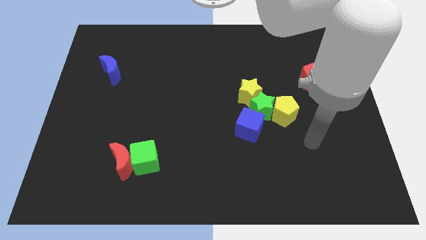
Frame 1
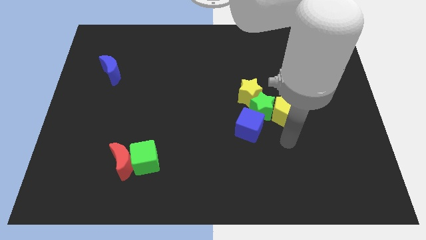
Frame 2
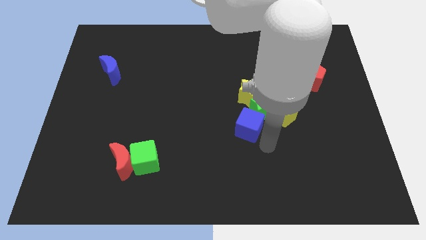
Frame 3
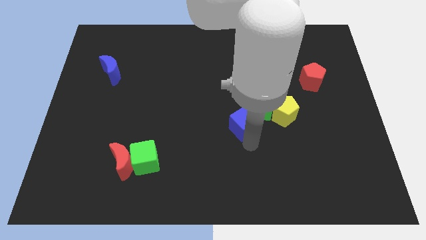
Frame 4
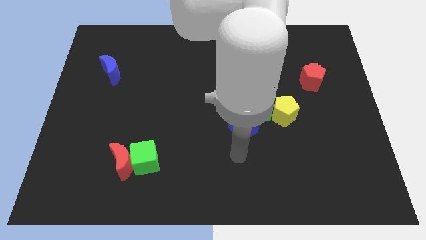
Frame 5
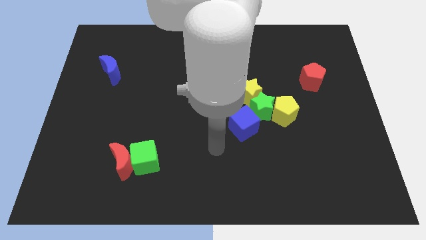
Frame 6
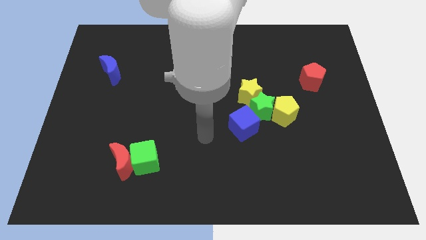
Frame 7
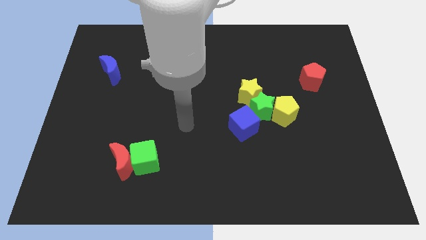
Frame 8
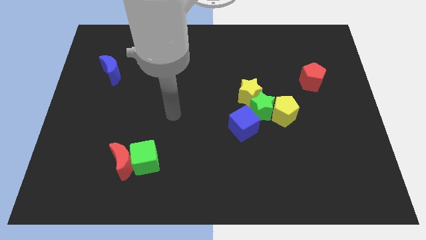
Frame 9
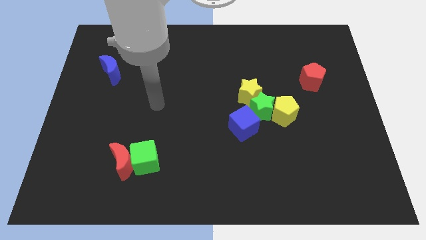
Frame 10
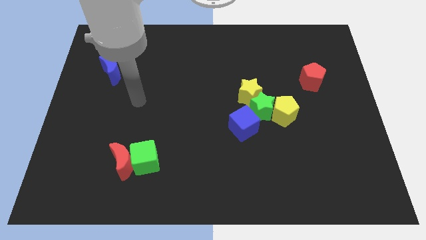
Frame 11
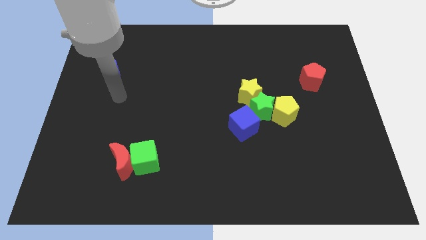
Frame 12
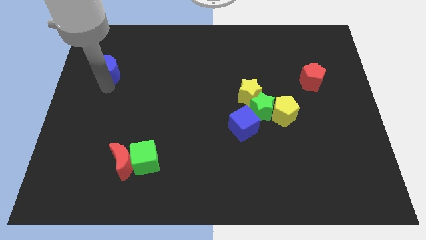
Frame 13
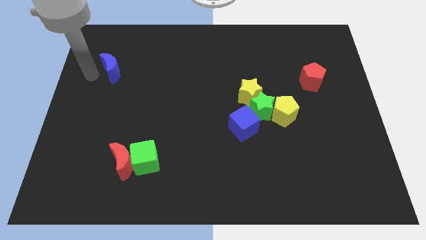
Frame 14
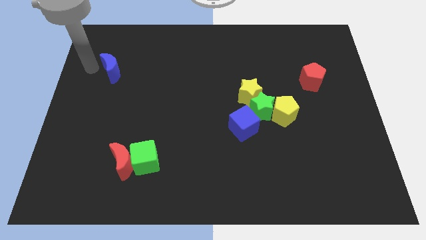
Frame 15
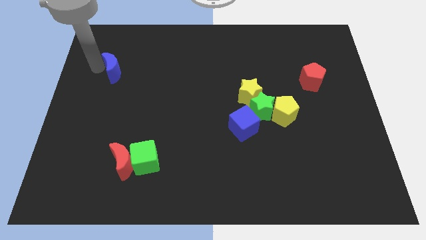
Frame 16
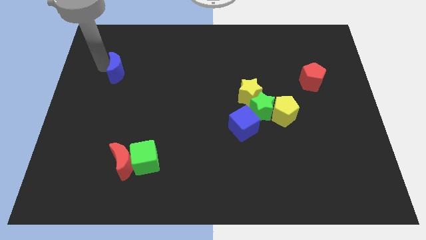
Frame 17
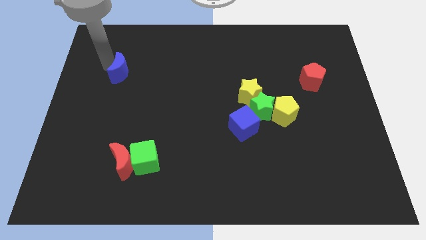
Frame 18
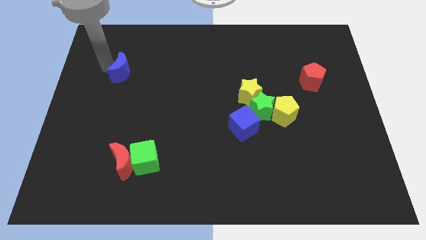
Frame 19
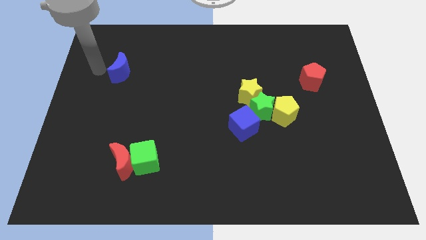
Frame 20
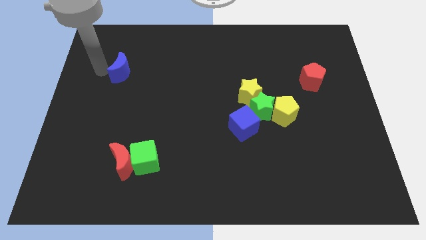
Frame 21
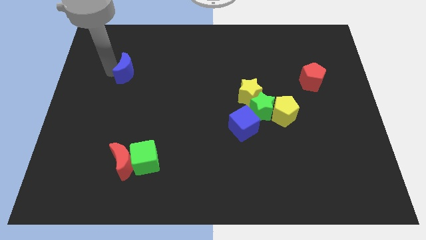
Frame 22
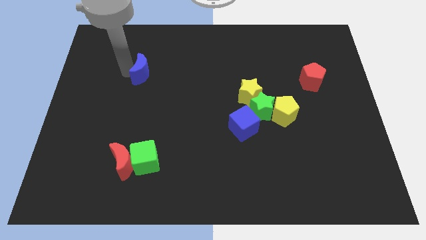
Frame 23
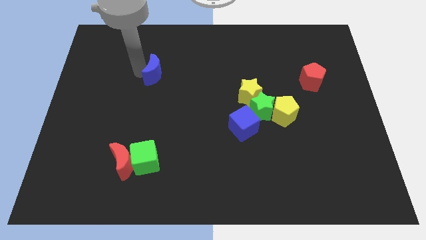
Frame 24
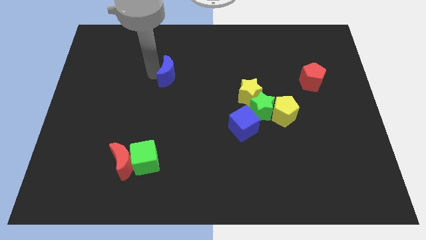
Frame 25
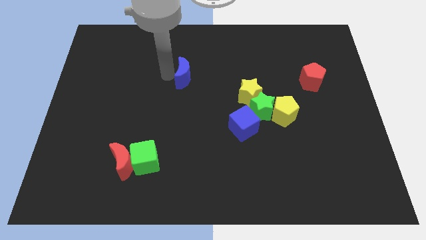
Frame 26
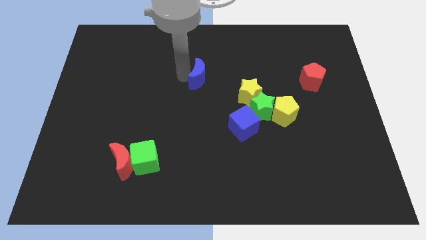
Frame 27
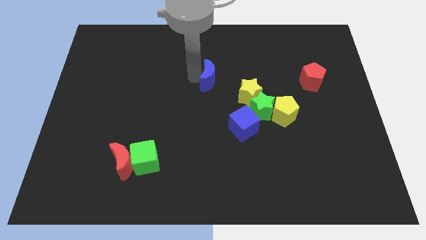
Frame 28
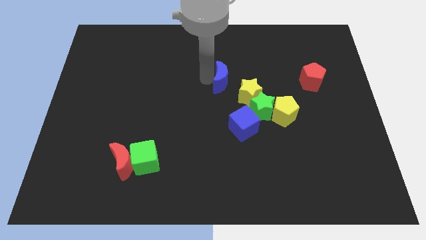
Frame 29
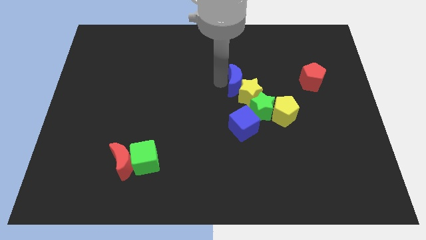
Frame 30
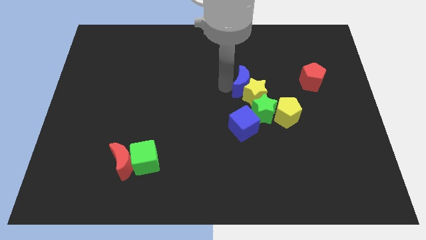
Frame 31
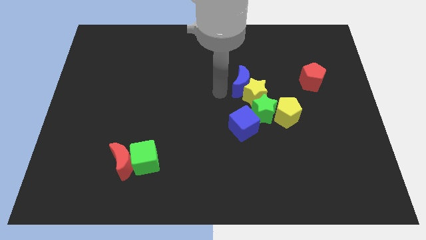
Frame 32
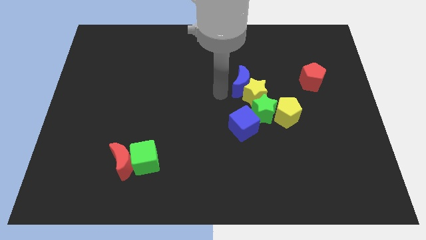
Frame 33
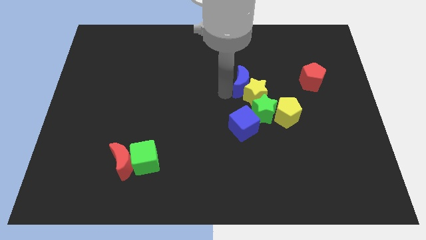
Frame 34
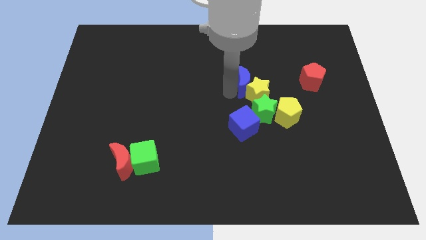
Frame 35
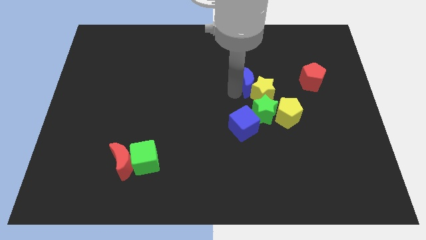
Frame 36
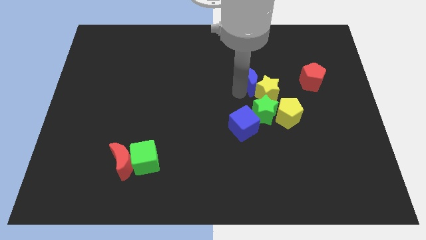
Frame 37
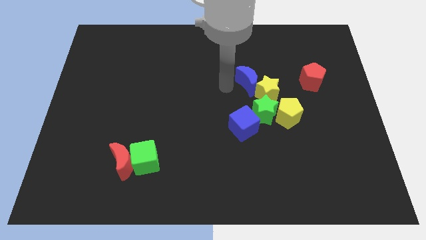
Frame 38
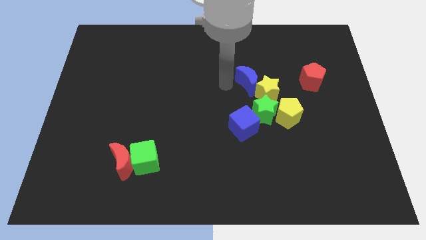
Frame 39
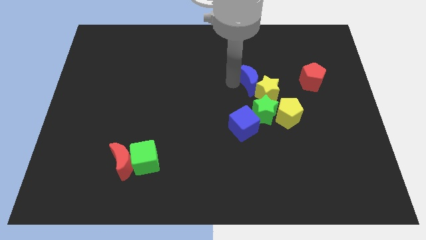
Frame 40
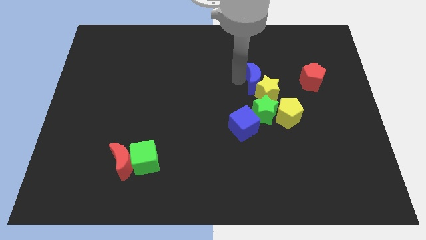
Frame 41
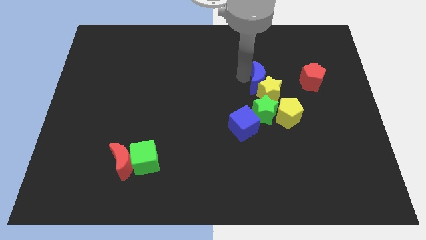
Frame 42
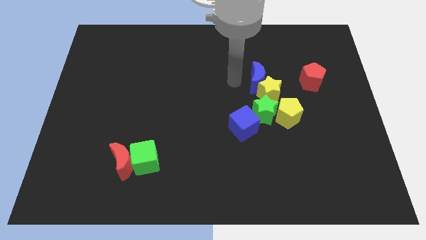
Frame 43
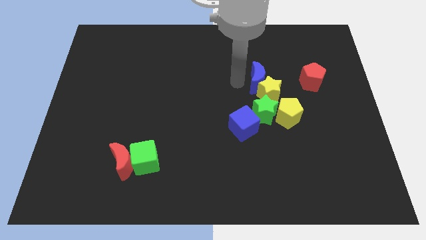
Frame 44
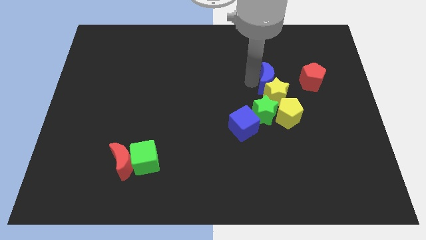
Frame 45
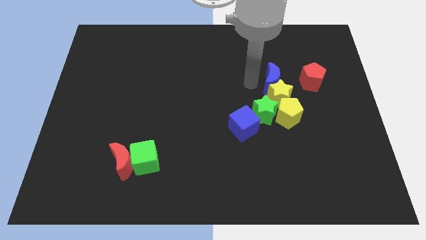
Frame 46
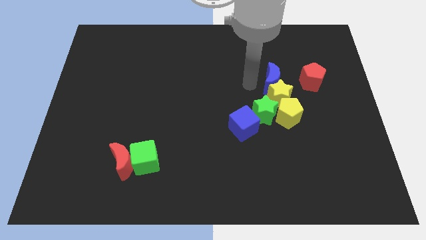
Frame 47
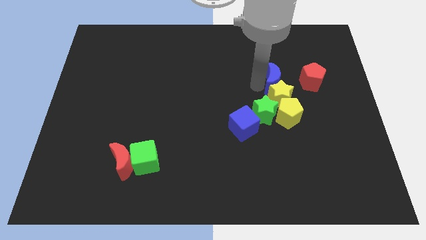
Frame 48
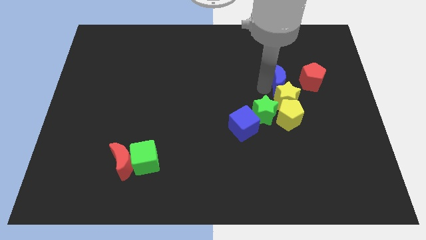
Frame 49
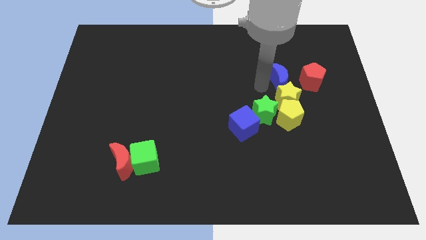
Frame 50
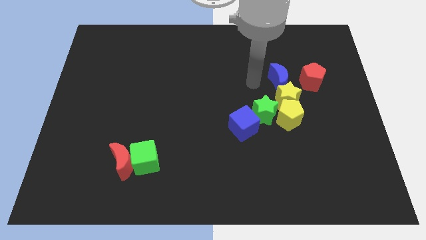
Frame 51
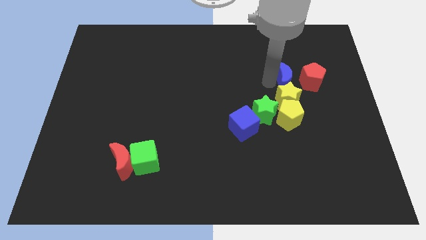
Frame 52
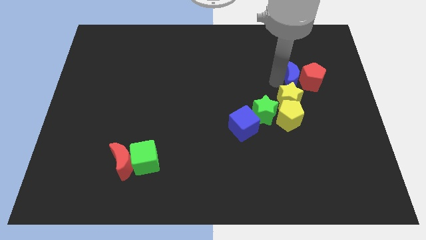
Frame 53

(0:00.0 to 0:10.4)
slide the blue moon close to the red pentagon

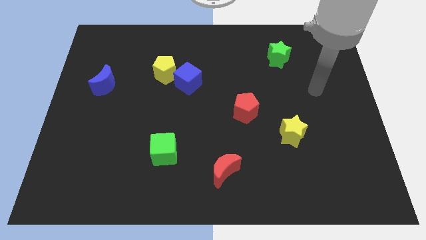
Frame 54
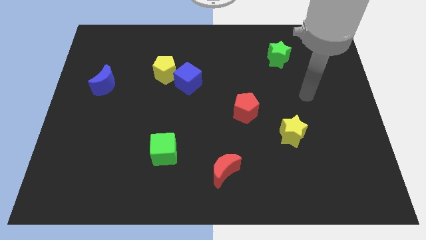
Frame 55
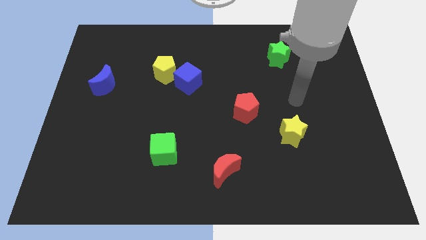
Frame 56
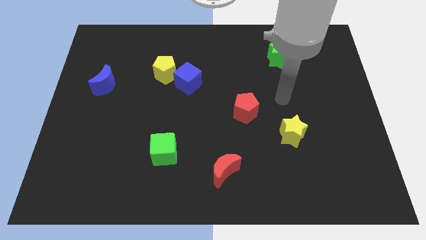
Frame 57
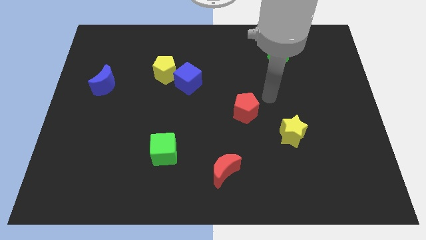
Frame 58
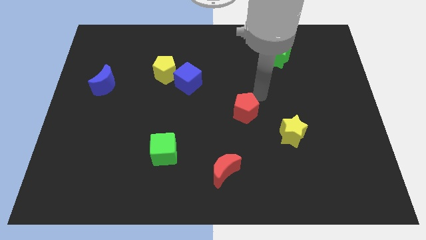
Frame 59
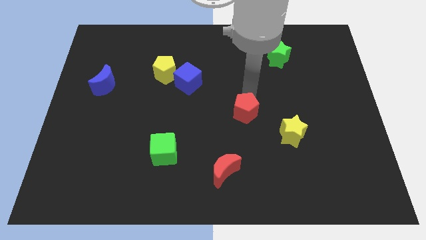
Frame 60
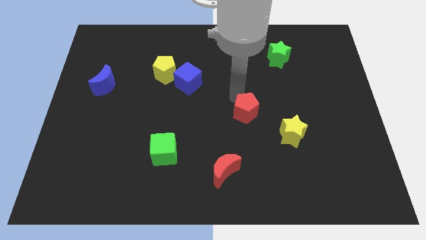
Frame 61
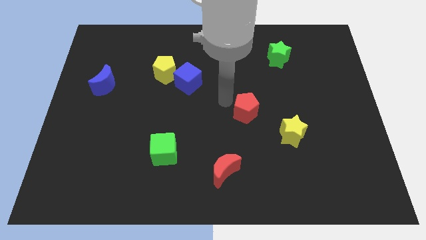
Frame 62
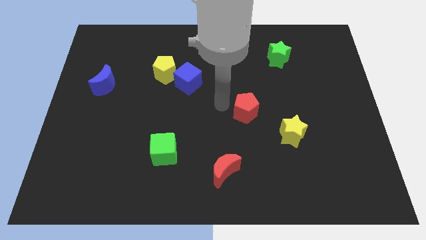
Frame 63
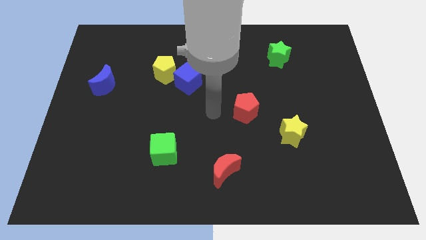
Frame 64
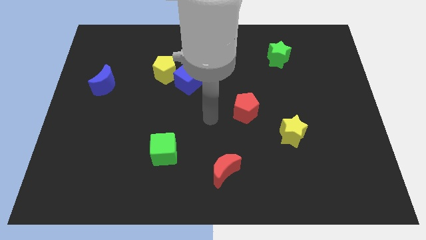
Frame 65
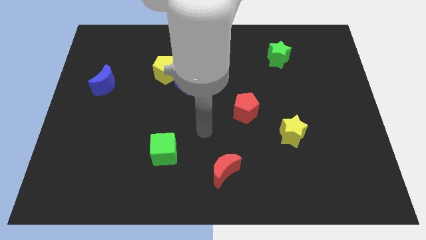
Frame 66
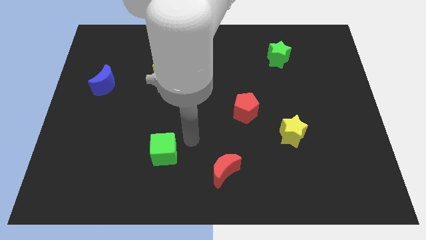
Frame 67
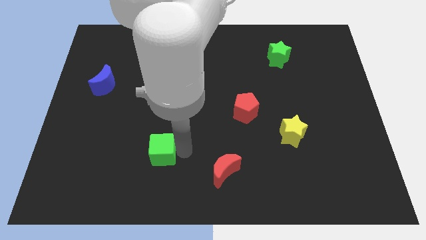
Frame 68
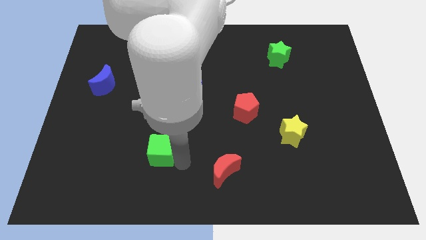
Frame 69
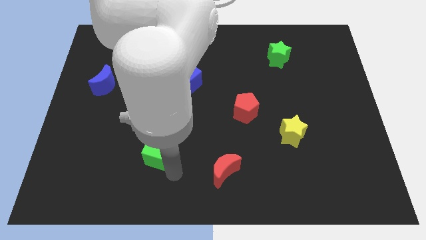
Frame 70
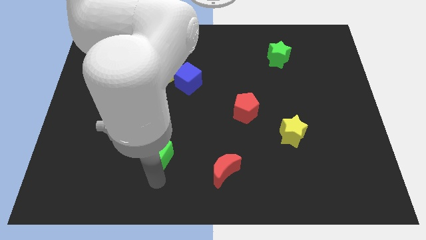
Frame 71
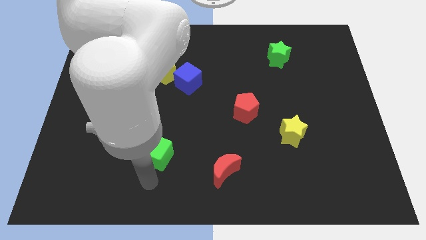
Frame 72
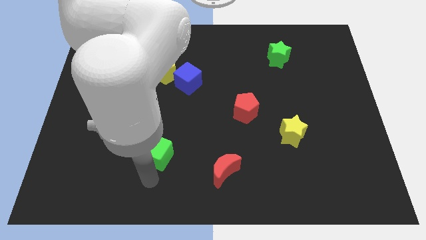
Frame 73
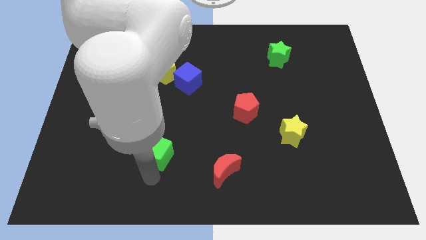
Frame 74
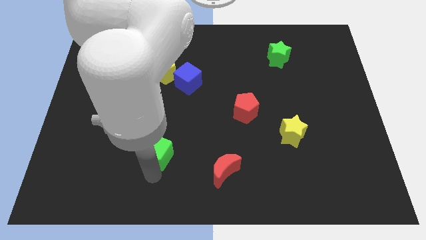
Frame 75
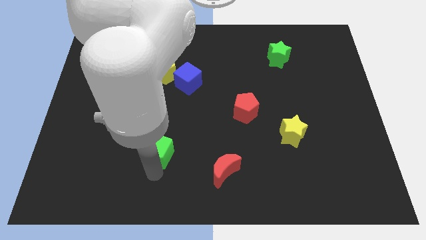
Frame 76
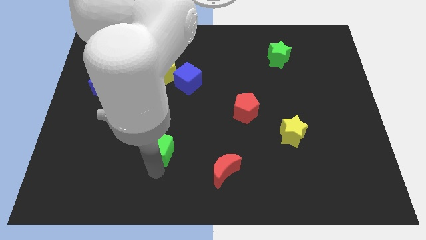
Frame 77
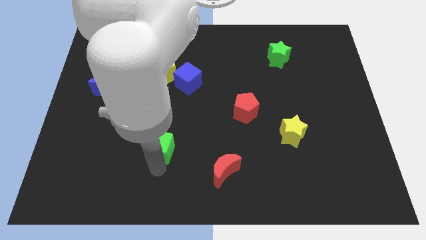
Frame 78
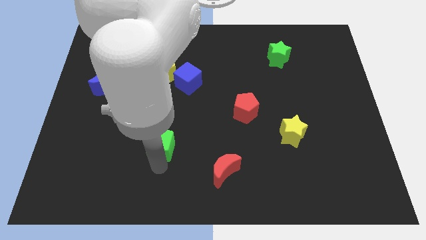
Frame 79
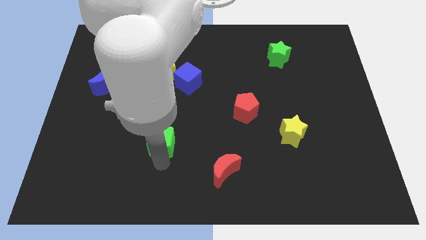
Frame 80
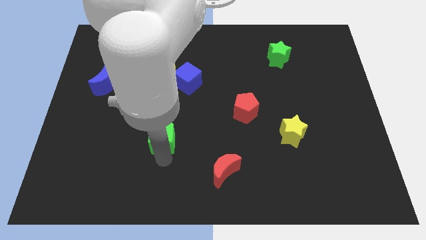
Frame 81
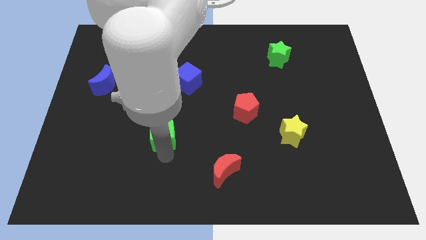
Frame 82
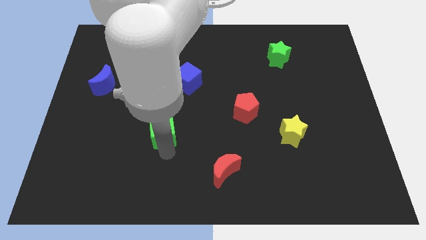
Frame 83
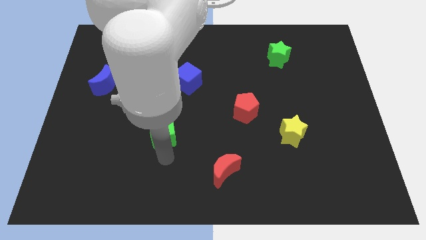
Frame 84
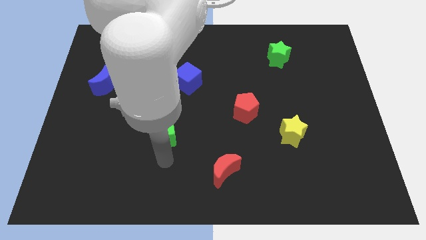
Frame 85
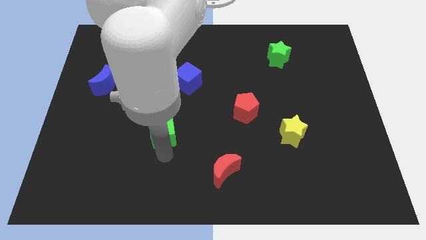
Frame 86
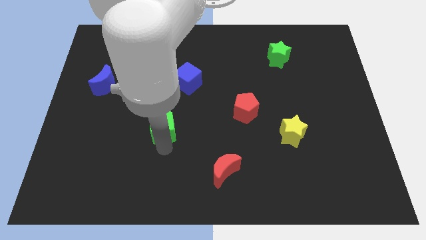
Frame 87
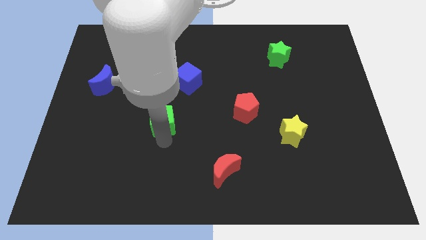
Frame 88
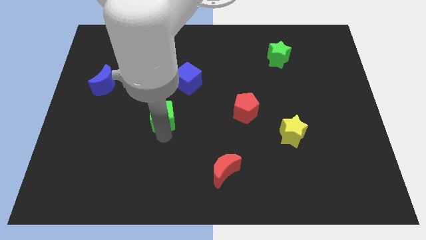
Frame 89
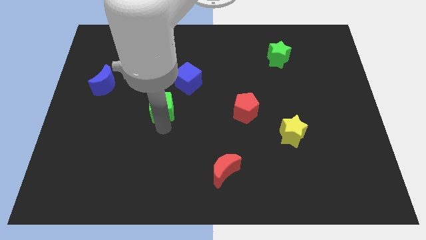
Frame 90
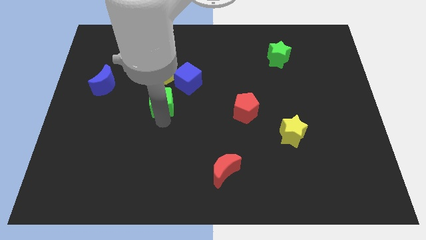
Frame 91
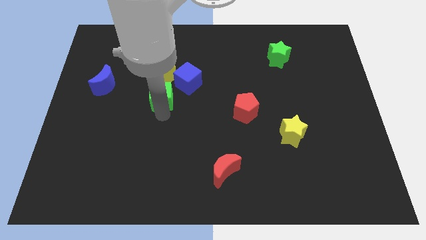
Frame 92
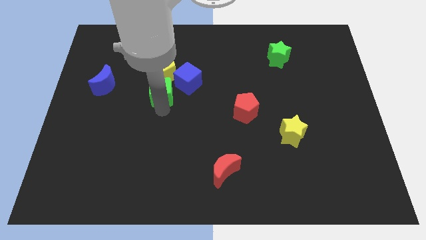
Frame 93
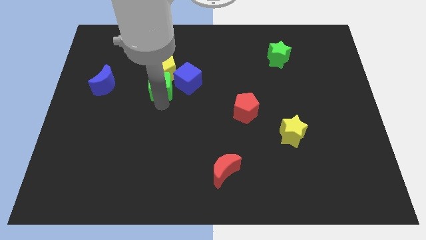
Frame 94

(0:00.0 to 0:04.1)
put the green cube to the yellow pentagon
